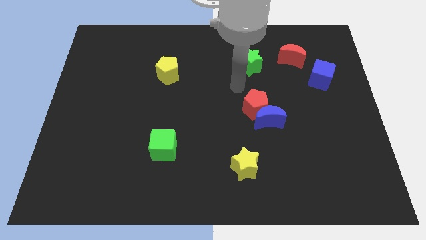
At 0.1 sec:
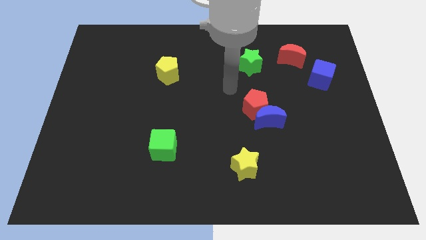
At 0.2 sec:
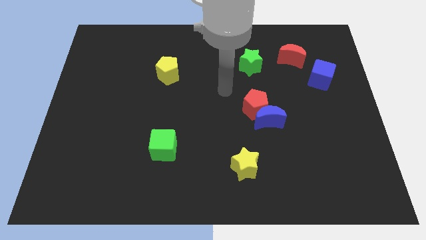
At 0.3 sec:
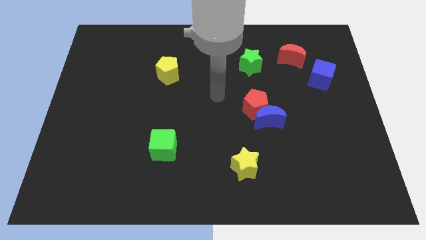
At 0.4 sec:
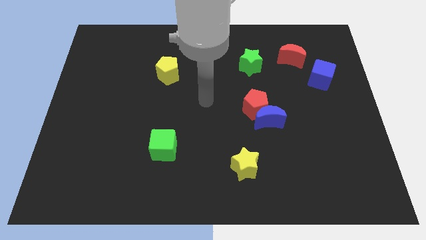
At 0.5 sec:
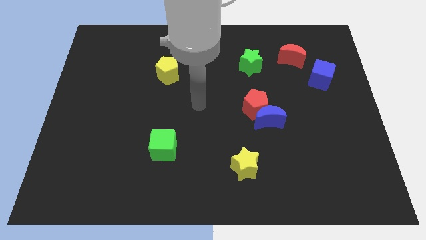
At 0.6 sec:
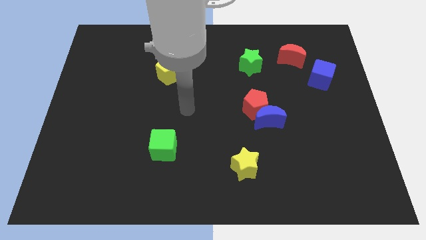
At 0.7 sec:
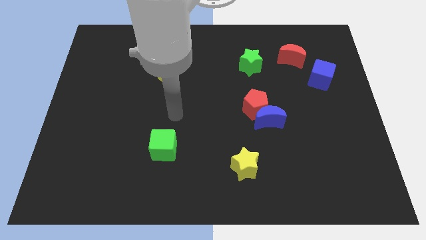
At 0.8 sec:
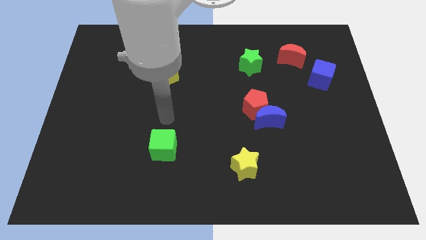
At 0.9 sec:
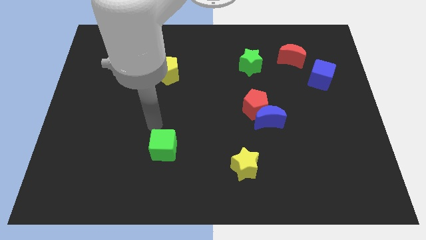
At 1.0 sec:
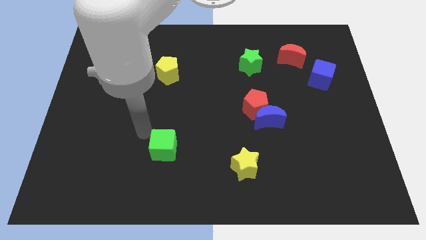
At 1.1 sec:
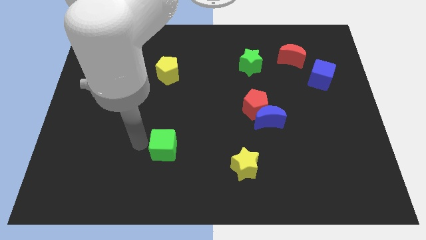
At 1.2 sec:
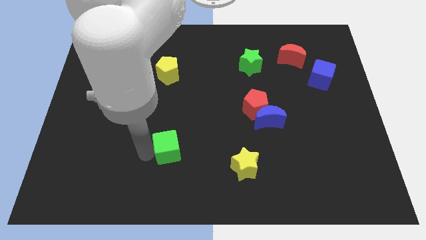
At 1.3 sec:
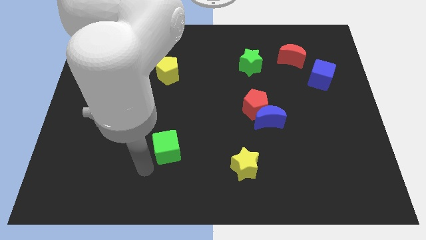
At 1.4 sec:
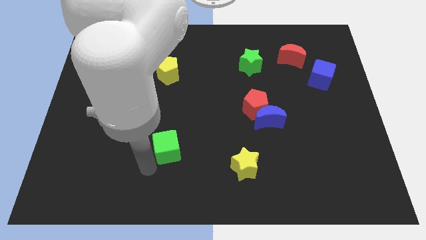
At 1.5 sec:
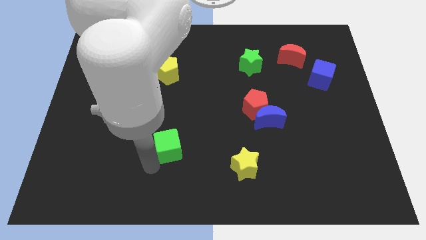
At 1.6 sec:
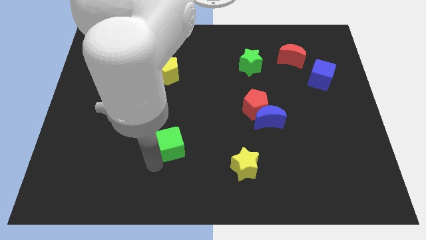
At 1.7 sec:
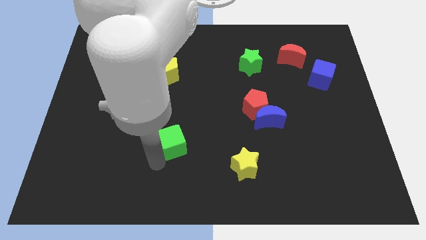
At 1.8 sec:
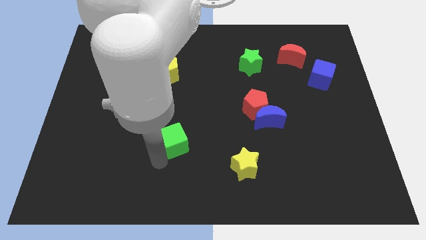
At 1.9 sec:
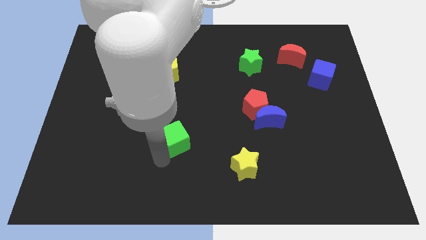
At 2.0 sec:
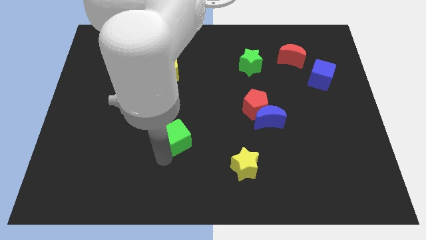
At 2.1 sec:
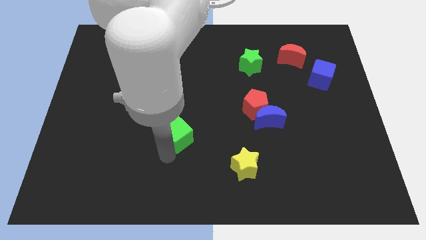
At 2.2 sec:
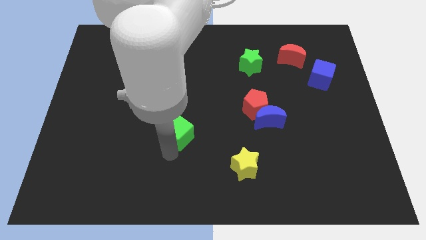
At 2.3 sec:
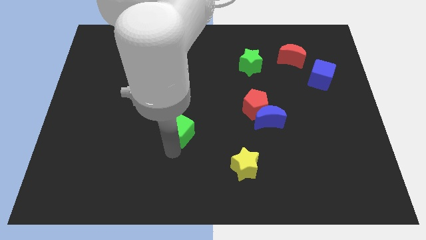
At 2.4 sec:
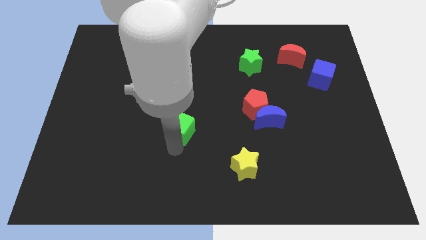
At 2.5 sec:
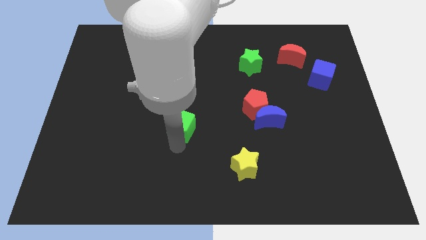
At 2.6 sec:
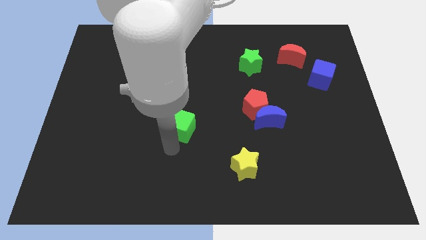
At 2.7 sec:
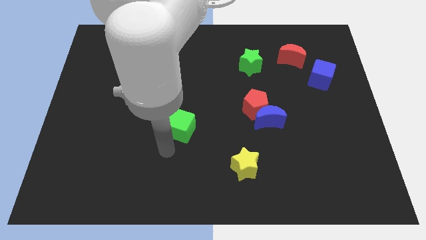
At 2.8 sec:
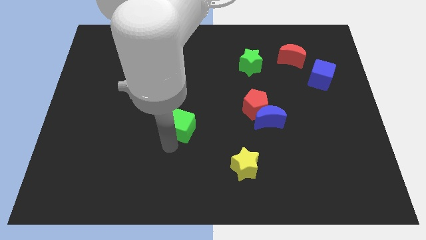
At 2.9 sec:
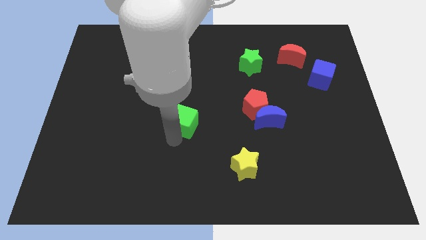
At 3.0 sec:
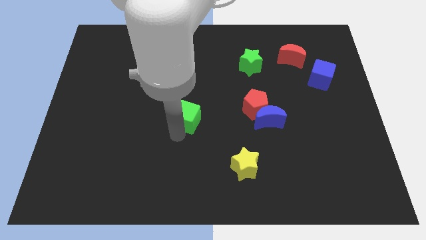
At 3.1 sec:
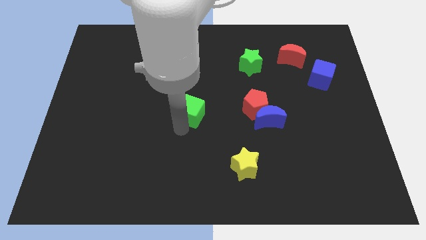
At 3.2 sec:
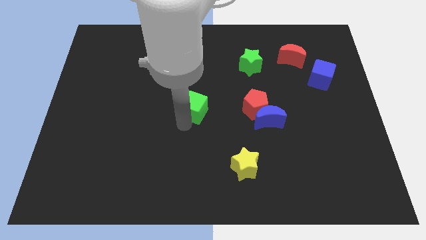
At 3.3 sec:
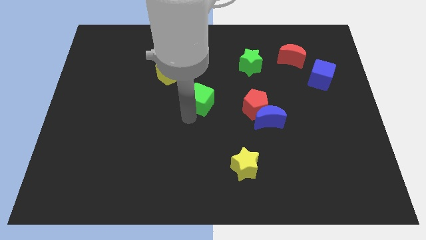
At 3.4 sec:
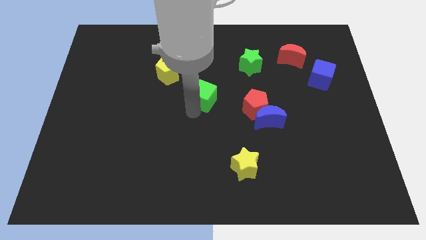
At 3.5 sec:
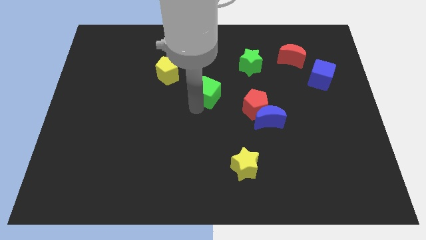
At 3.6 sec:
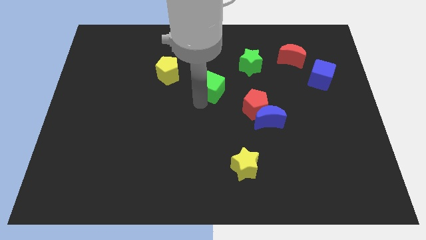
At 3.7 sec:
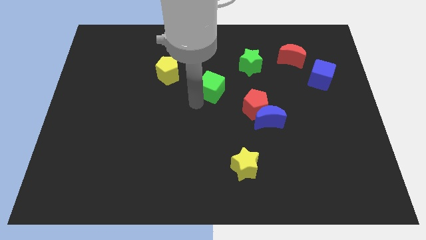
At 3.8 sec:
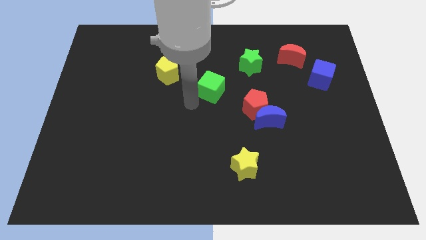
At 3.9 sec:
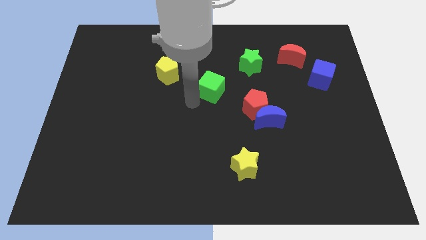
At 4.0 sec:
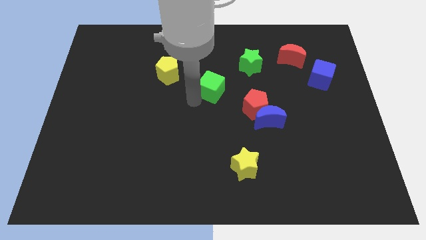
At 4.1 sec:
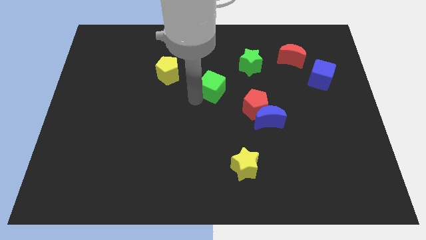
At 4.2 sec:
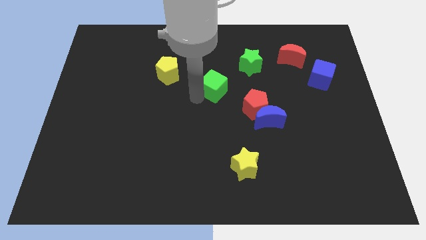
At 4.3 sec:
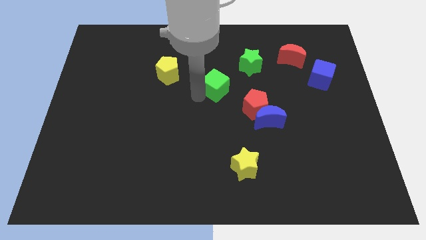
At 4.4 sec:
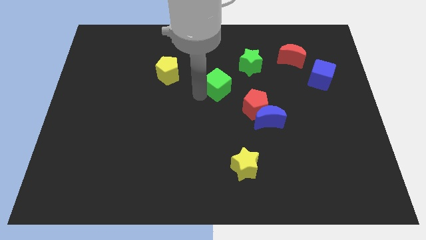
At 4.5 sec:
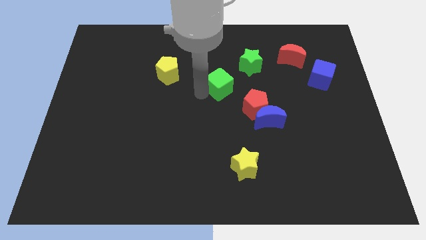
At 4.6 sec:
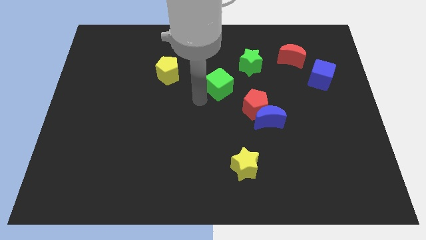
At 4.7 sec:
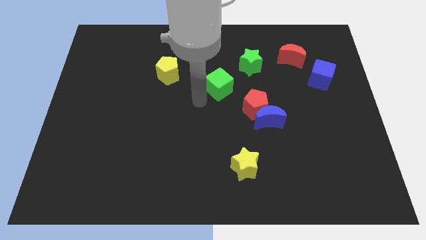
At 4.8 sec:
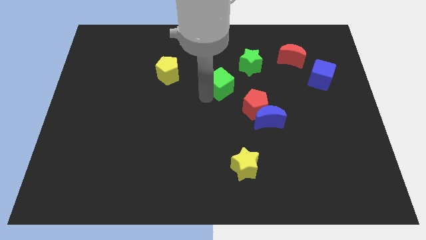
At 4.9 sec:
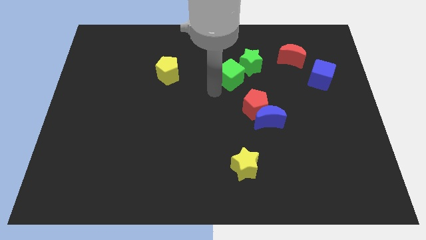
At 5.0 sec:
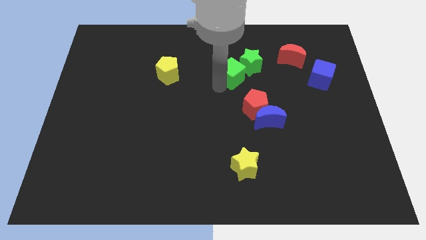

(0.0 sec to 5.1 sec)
move the green cube close to the green star

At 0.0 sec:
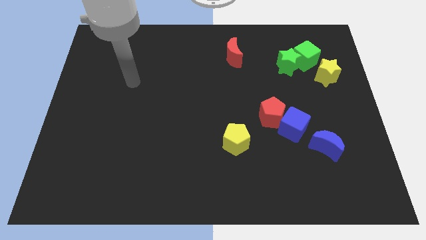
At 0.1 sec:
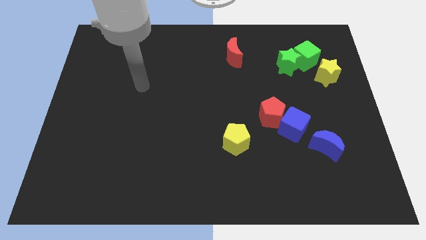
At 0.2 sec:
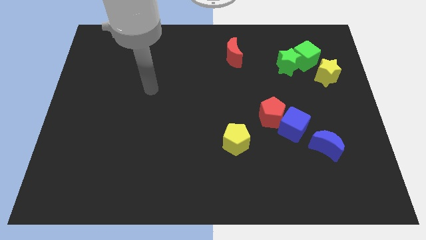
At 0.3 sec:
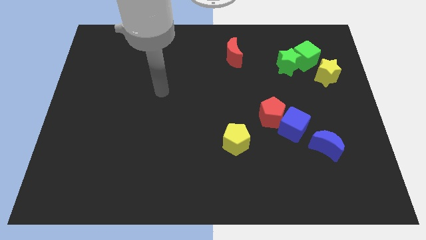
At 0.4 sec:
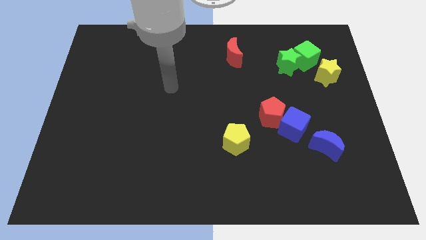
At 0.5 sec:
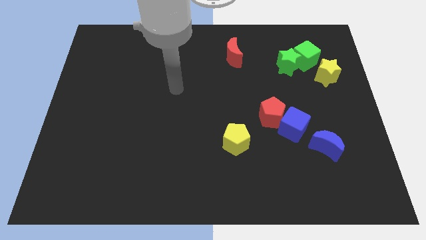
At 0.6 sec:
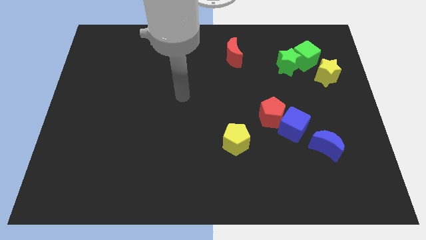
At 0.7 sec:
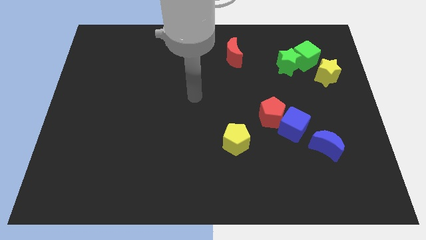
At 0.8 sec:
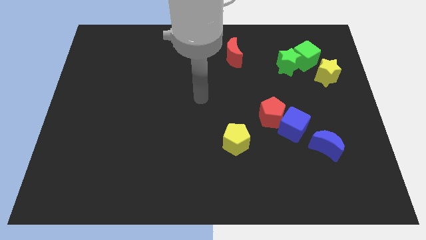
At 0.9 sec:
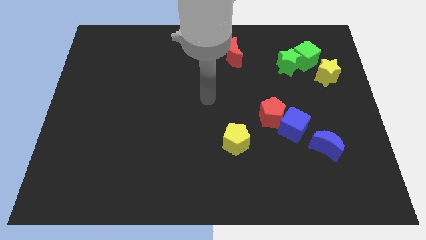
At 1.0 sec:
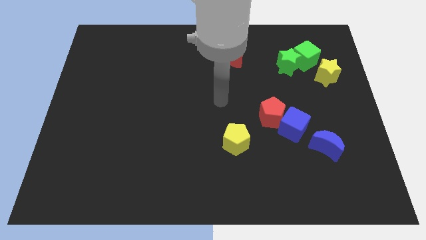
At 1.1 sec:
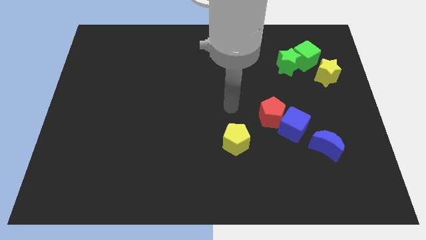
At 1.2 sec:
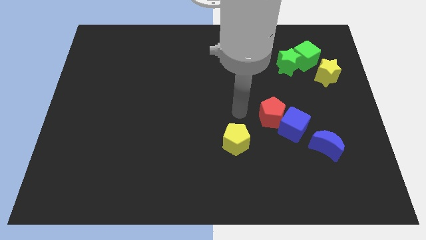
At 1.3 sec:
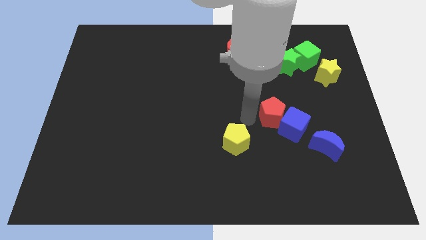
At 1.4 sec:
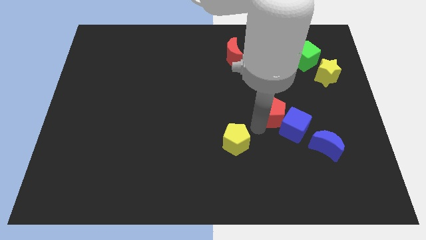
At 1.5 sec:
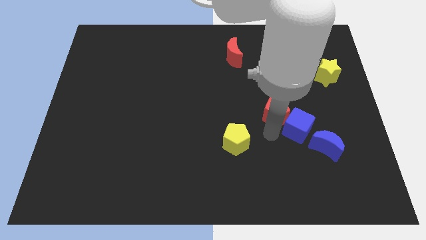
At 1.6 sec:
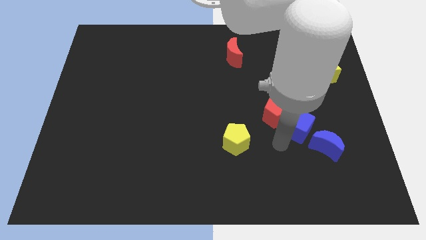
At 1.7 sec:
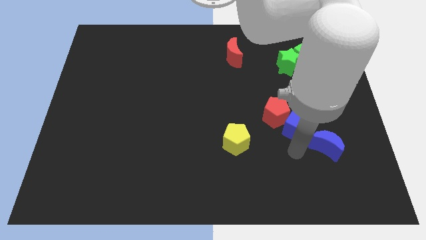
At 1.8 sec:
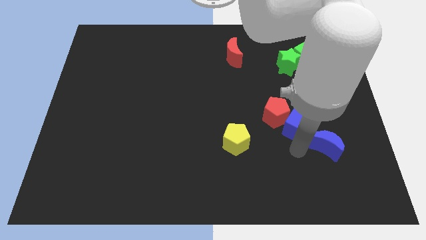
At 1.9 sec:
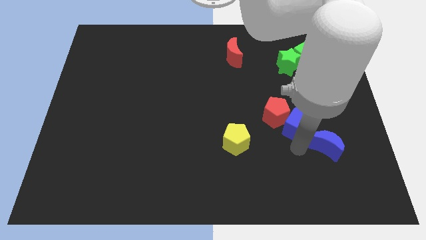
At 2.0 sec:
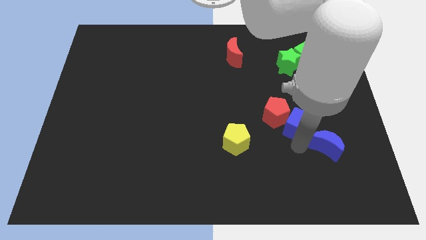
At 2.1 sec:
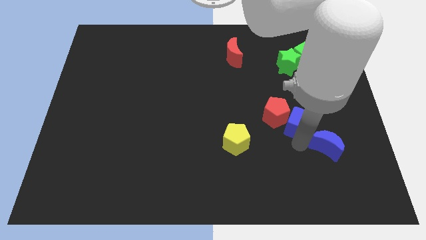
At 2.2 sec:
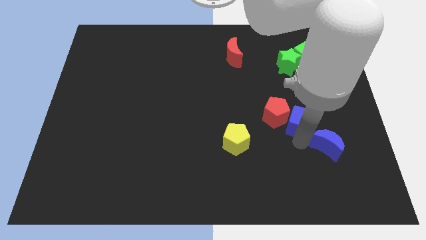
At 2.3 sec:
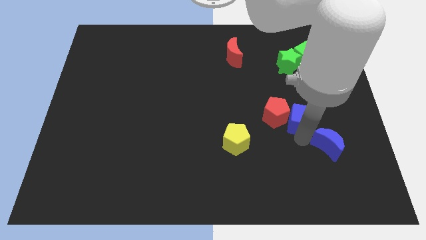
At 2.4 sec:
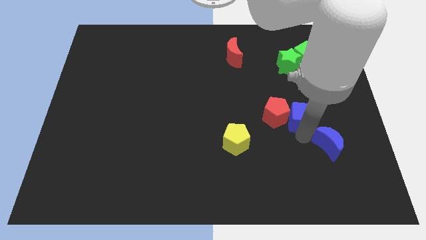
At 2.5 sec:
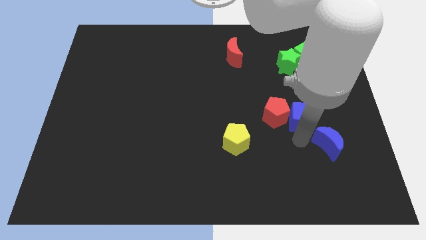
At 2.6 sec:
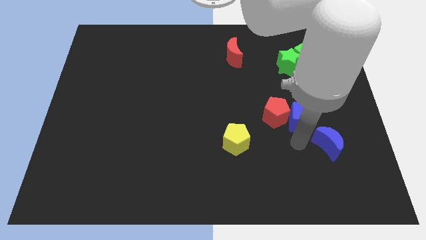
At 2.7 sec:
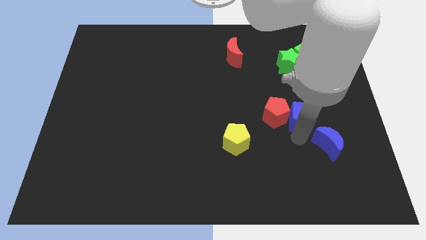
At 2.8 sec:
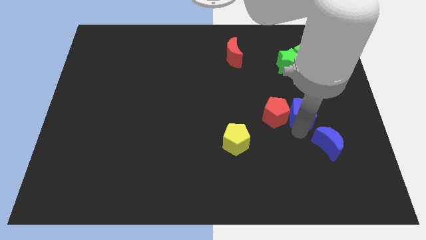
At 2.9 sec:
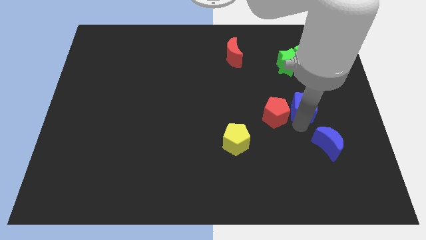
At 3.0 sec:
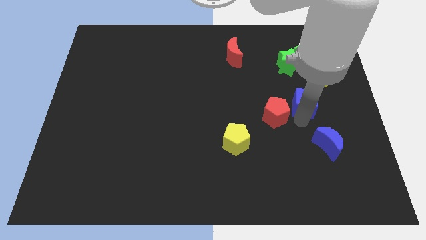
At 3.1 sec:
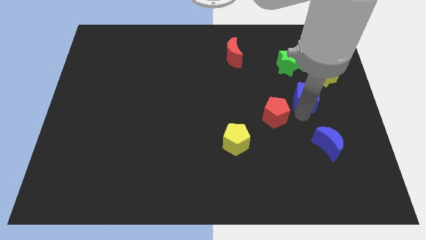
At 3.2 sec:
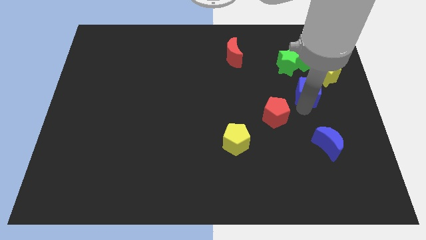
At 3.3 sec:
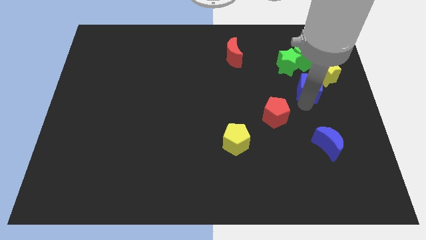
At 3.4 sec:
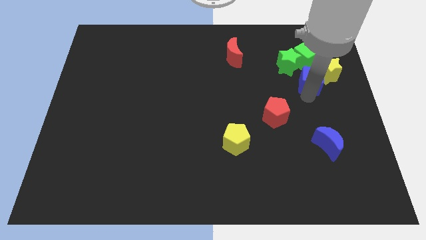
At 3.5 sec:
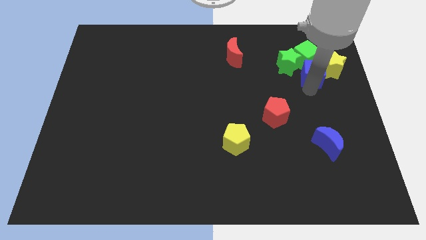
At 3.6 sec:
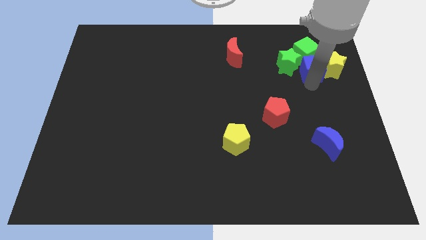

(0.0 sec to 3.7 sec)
move the blue cube next to the green cube
